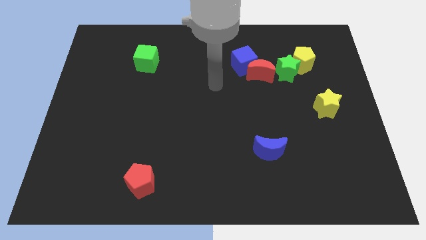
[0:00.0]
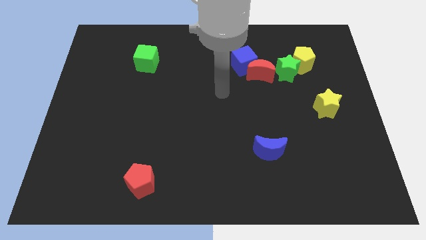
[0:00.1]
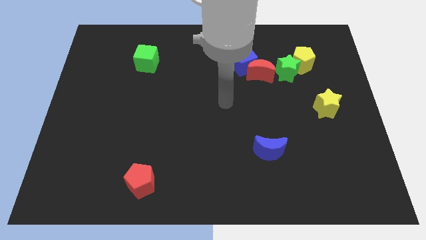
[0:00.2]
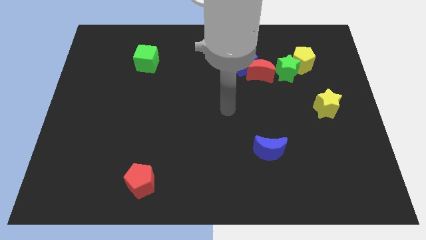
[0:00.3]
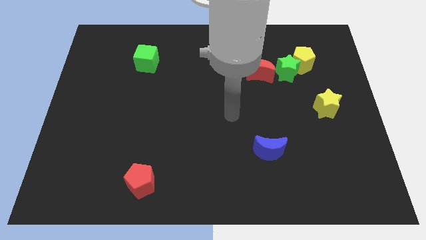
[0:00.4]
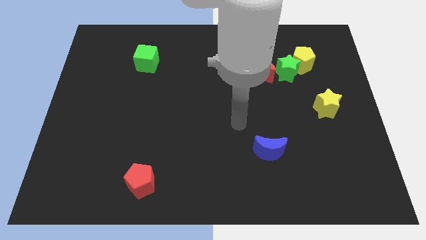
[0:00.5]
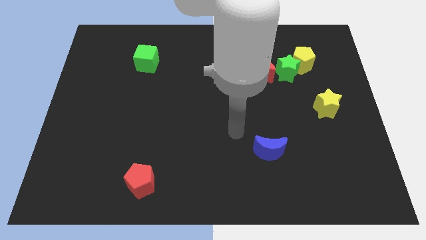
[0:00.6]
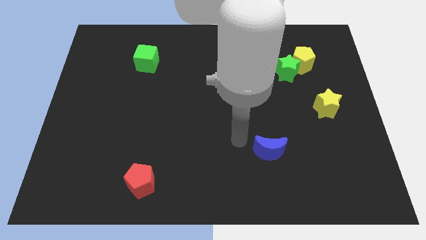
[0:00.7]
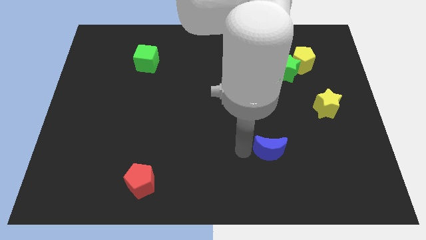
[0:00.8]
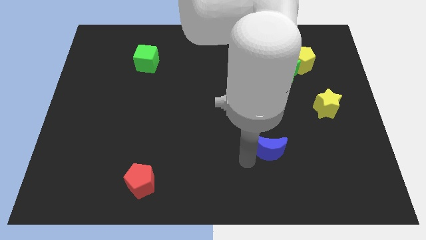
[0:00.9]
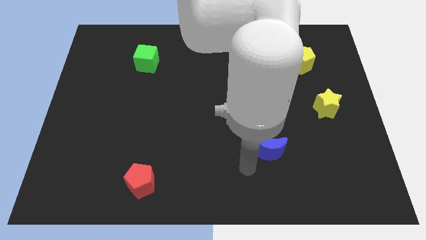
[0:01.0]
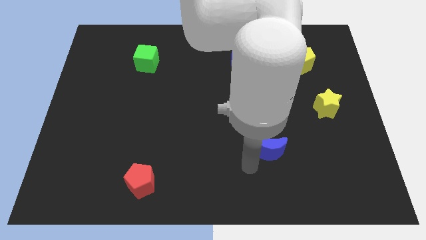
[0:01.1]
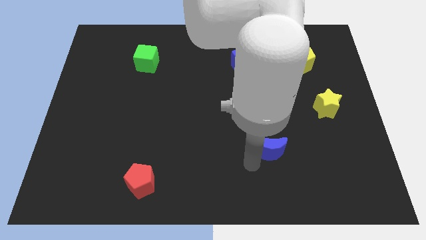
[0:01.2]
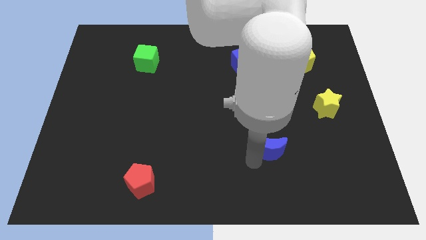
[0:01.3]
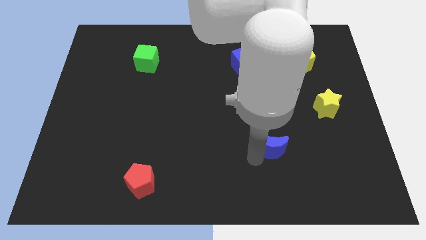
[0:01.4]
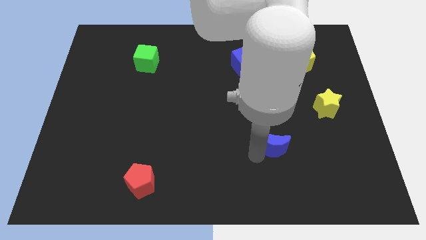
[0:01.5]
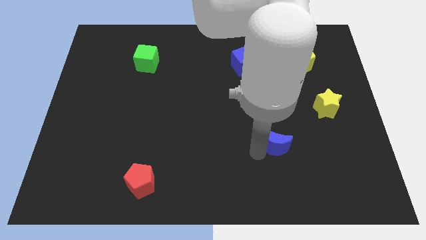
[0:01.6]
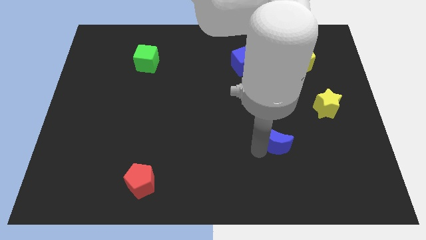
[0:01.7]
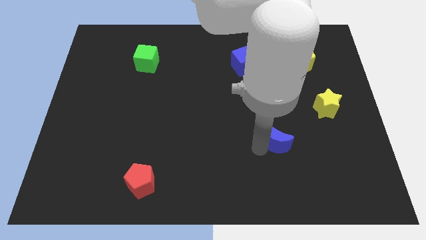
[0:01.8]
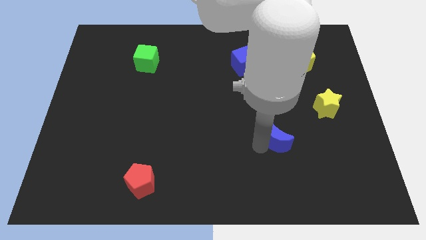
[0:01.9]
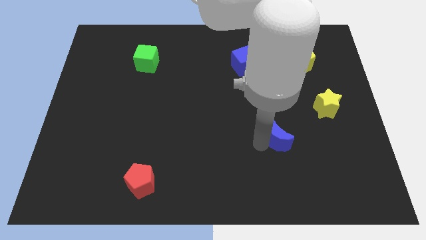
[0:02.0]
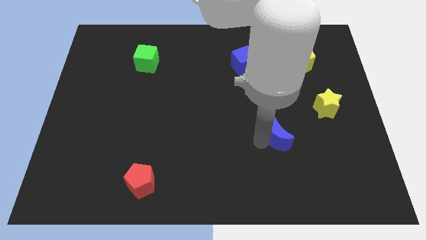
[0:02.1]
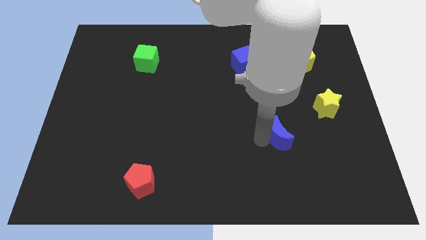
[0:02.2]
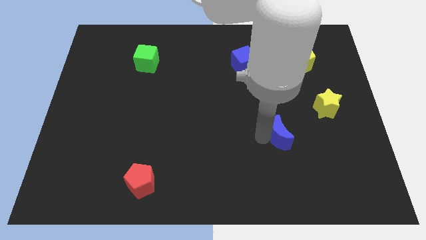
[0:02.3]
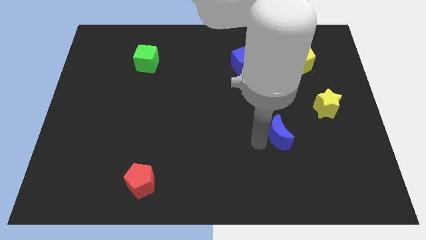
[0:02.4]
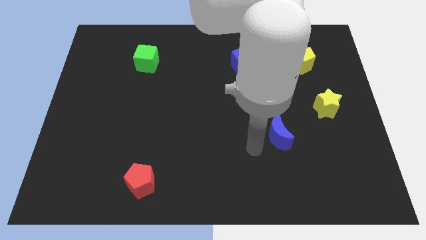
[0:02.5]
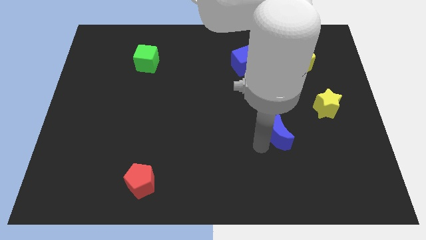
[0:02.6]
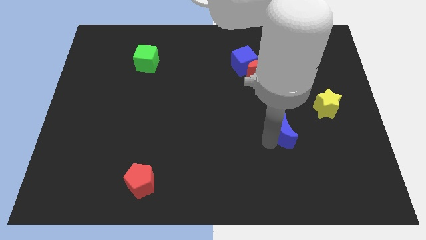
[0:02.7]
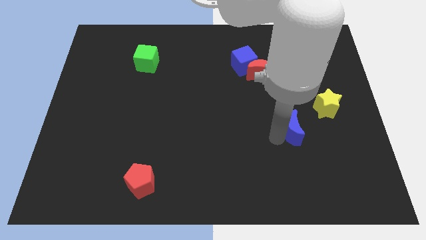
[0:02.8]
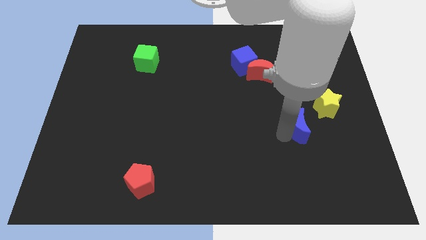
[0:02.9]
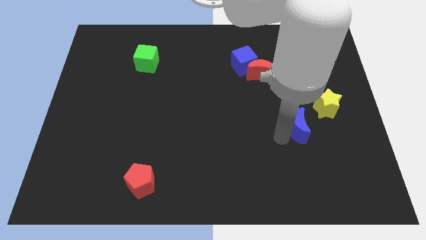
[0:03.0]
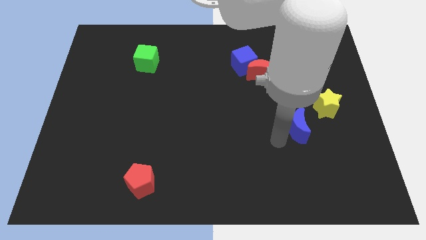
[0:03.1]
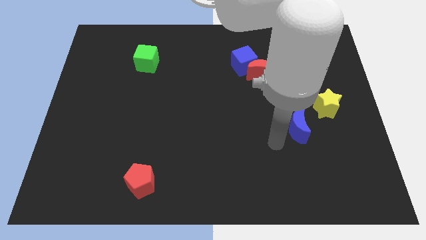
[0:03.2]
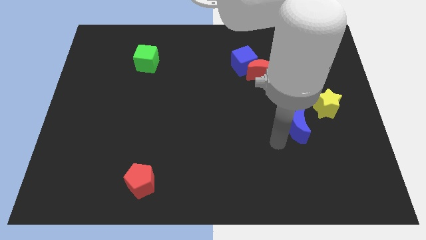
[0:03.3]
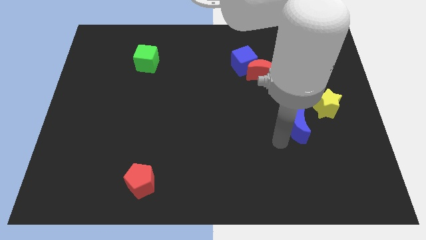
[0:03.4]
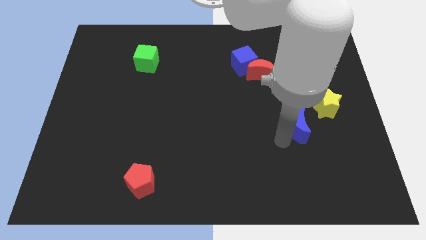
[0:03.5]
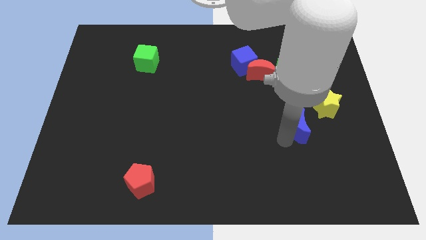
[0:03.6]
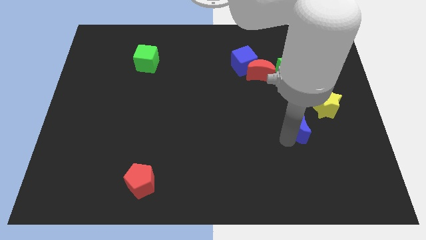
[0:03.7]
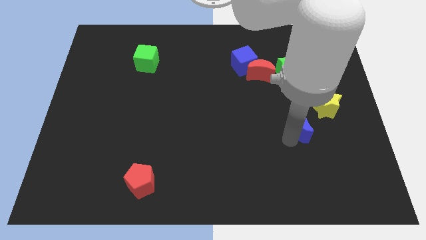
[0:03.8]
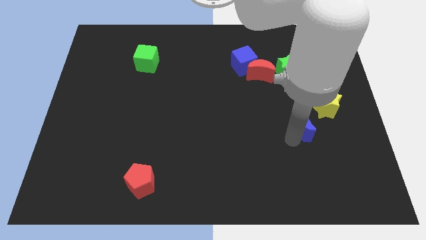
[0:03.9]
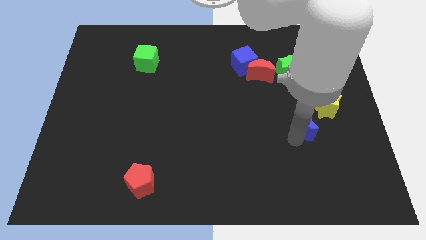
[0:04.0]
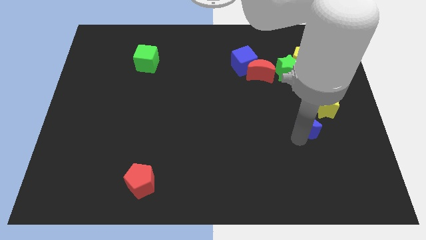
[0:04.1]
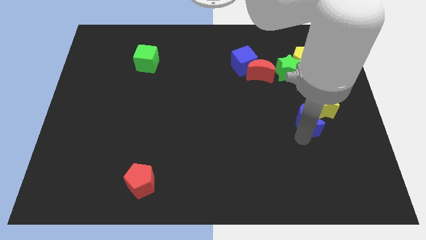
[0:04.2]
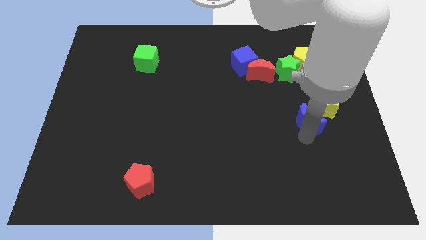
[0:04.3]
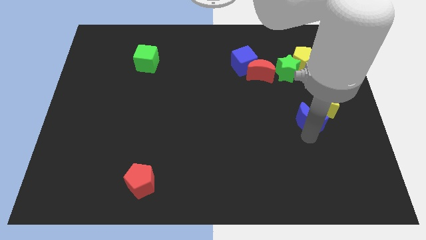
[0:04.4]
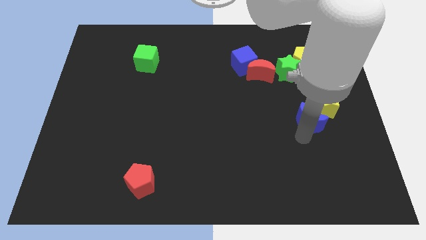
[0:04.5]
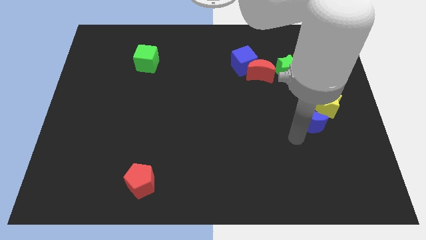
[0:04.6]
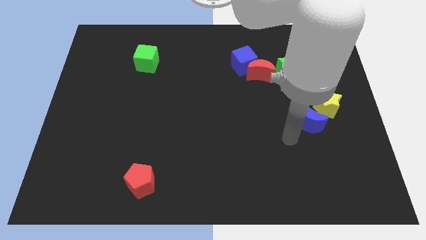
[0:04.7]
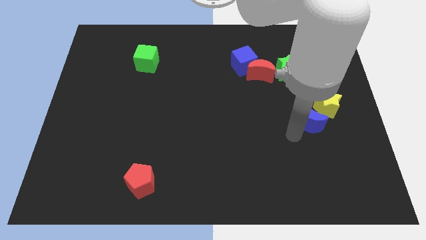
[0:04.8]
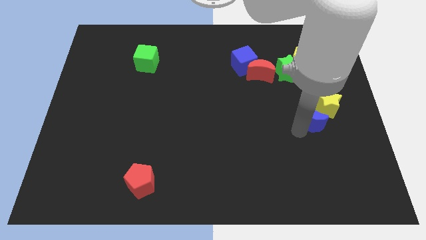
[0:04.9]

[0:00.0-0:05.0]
slide the blue moon next to the yellow star

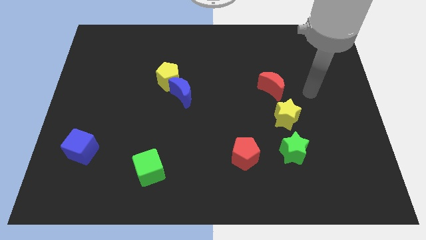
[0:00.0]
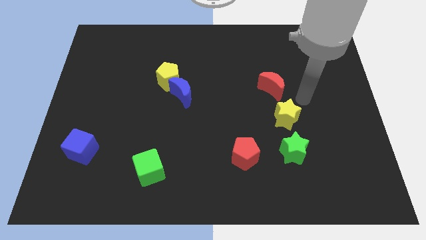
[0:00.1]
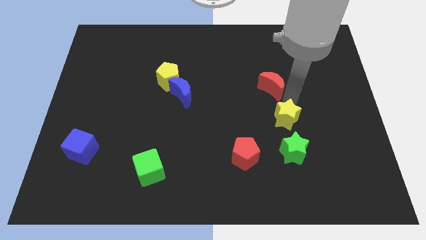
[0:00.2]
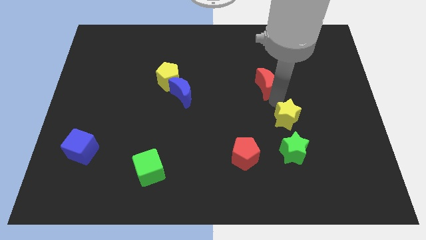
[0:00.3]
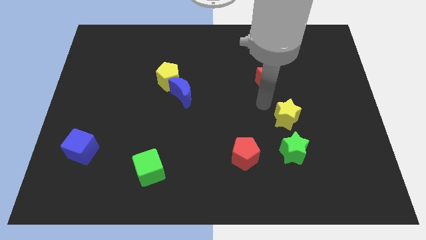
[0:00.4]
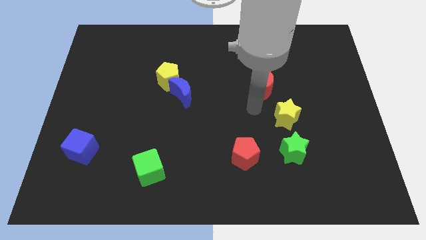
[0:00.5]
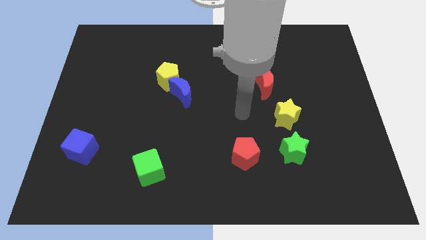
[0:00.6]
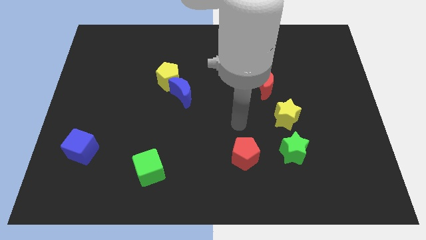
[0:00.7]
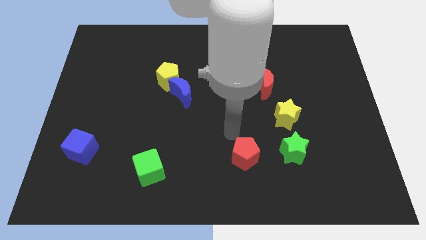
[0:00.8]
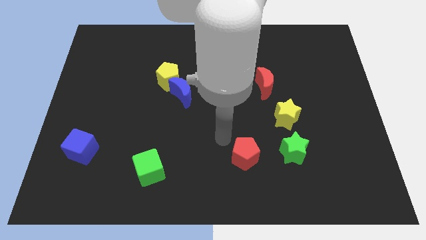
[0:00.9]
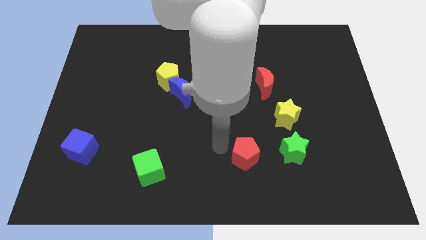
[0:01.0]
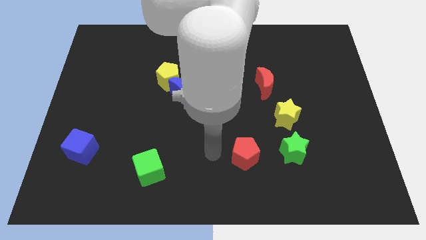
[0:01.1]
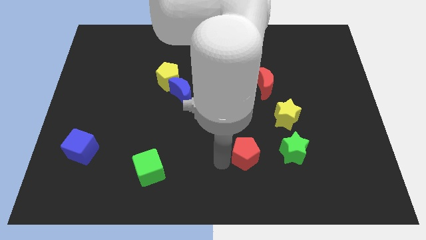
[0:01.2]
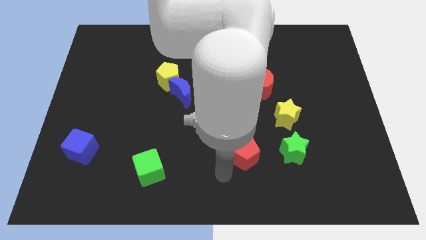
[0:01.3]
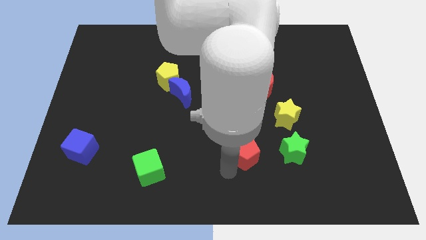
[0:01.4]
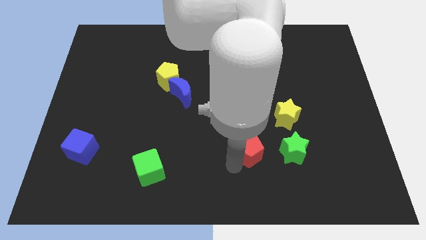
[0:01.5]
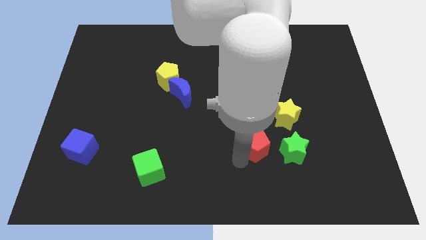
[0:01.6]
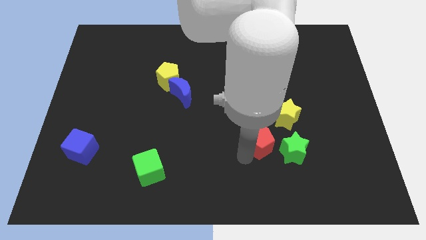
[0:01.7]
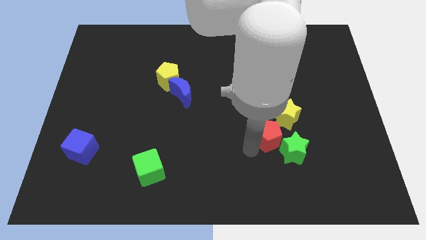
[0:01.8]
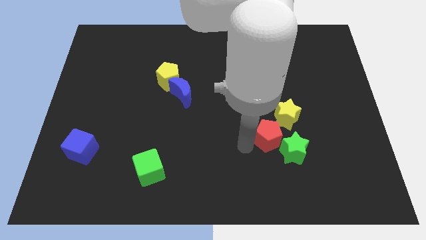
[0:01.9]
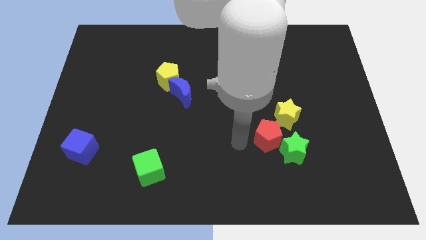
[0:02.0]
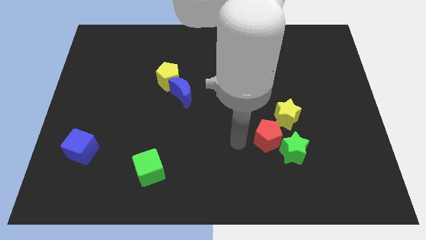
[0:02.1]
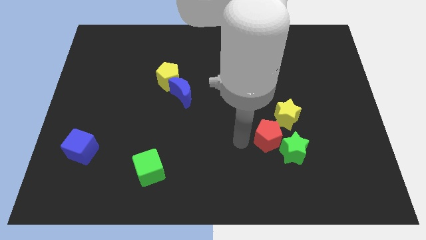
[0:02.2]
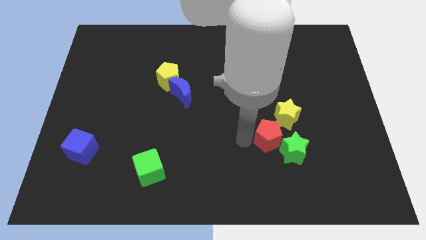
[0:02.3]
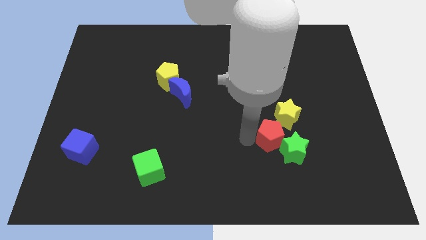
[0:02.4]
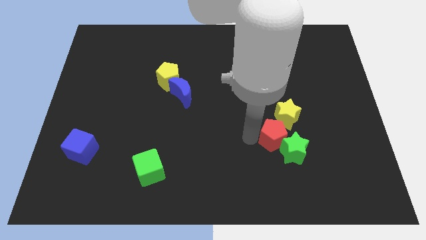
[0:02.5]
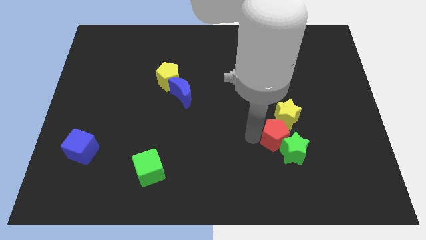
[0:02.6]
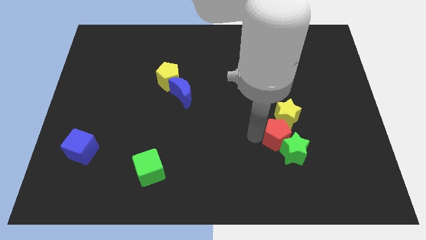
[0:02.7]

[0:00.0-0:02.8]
move the red pentagon next to the yellow star
